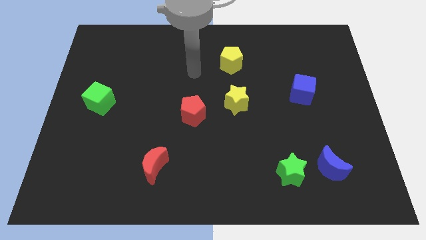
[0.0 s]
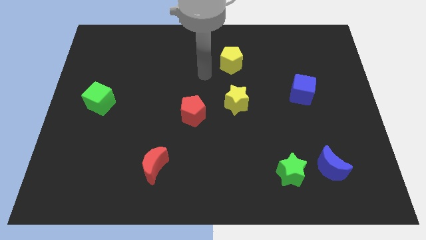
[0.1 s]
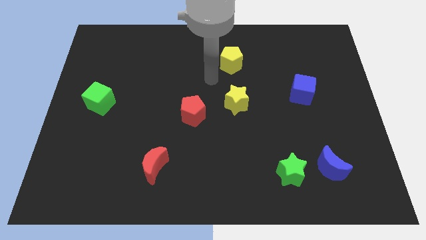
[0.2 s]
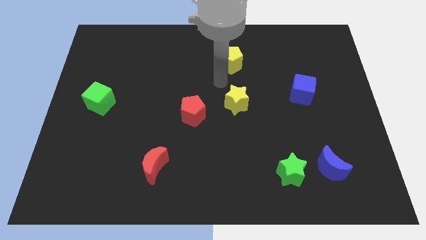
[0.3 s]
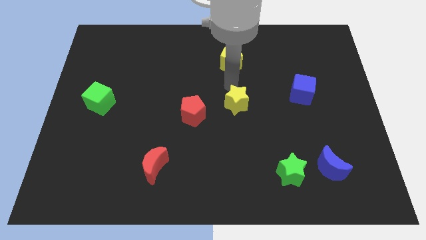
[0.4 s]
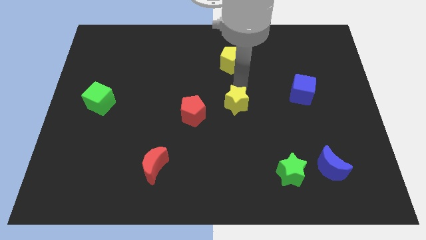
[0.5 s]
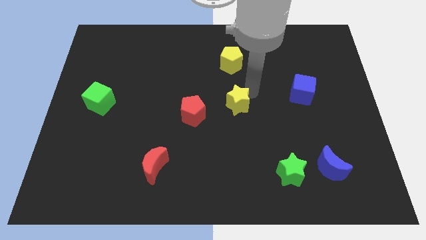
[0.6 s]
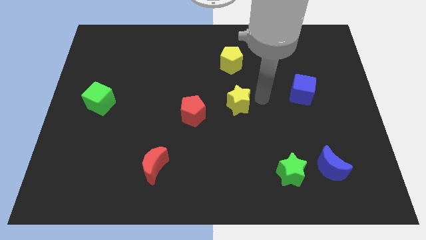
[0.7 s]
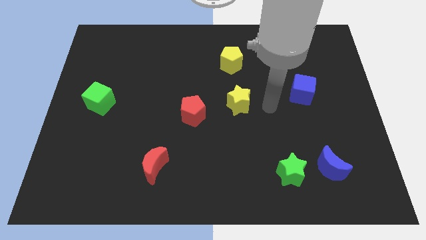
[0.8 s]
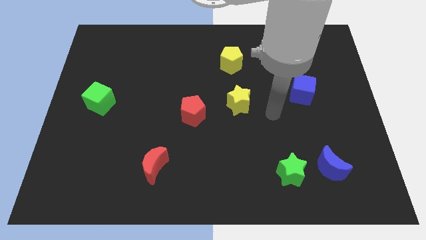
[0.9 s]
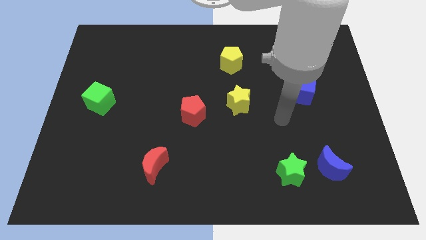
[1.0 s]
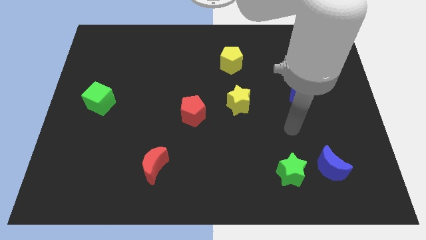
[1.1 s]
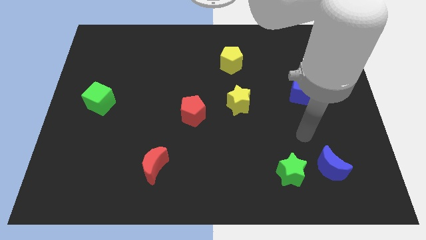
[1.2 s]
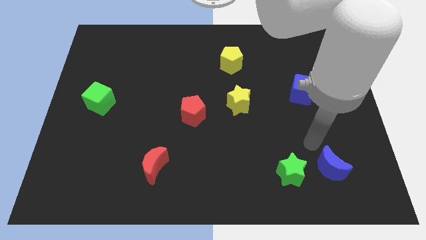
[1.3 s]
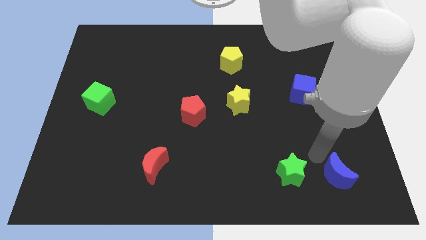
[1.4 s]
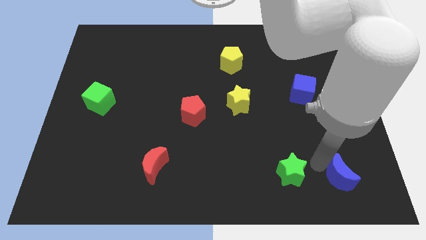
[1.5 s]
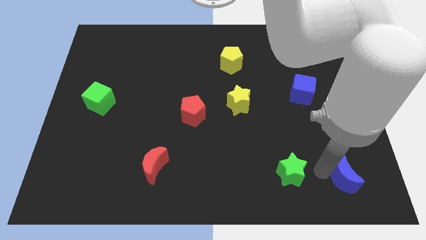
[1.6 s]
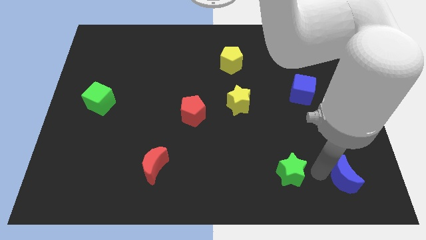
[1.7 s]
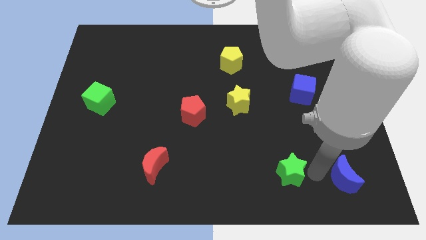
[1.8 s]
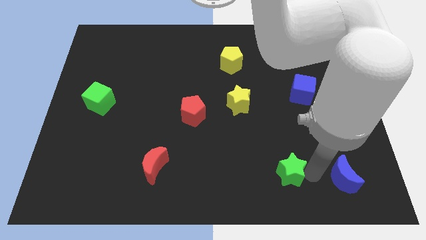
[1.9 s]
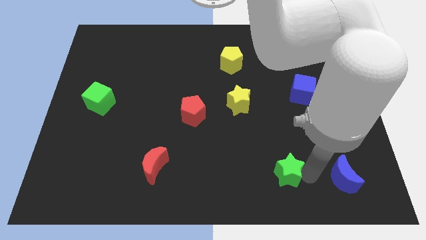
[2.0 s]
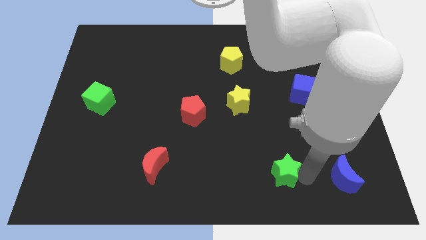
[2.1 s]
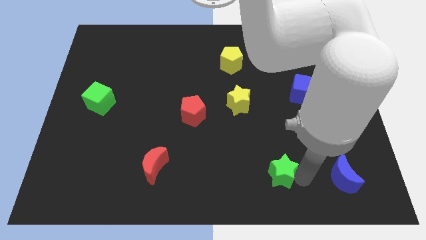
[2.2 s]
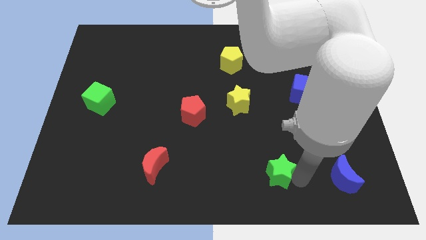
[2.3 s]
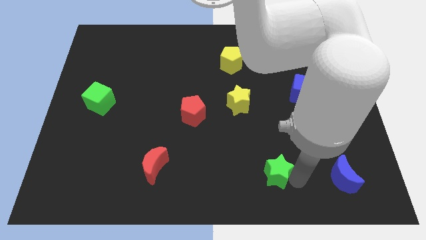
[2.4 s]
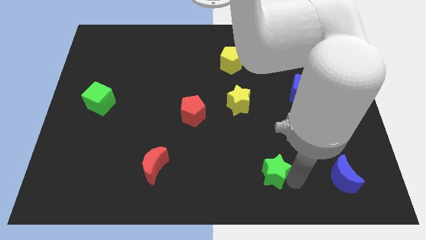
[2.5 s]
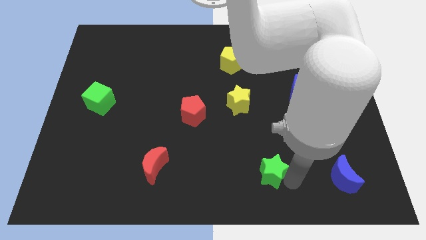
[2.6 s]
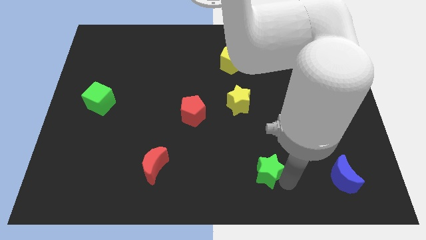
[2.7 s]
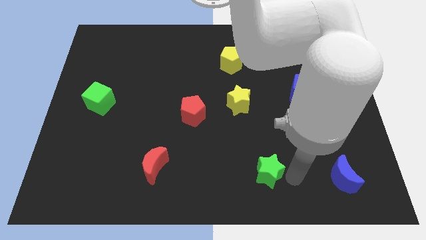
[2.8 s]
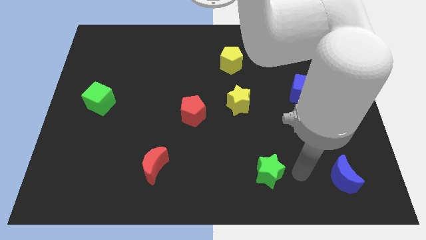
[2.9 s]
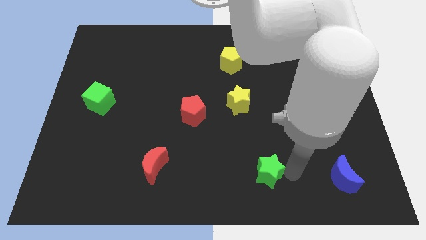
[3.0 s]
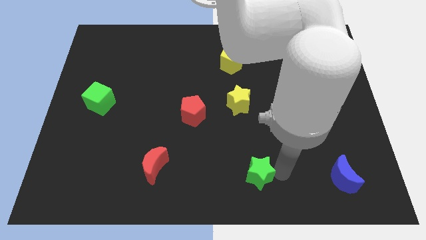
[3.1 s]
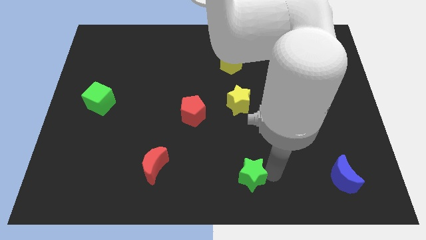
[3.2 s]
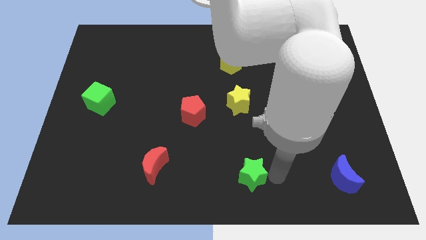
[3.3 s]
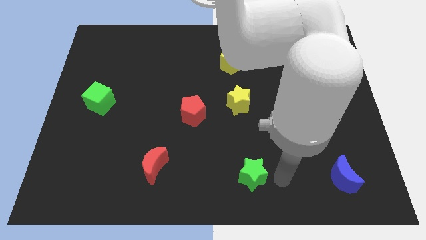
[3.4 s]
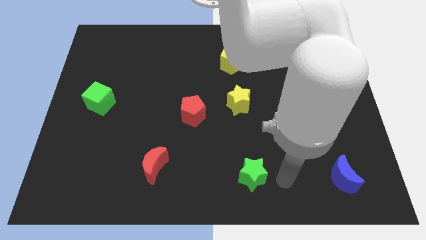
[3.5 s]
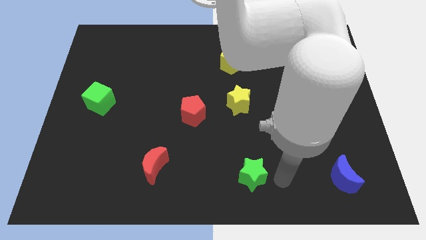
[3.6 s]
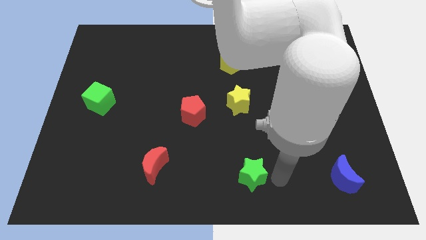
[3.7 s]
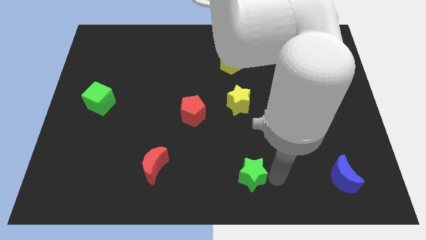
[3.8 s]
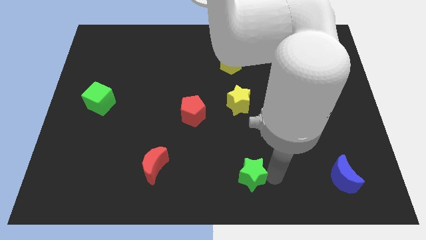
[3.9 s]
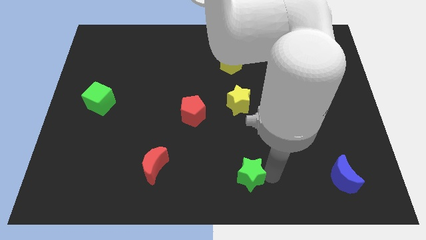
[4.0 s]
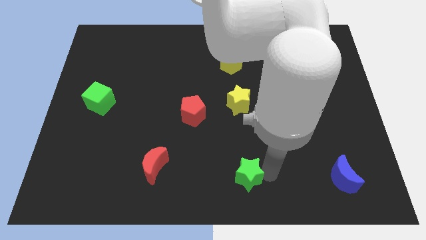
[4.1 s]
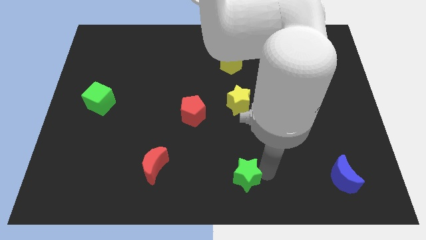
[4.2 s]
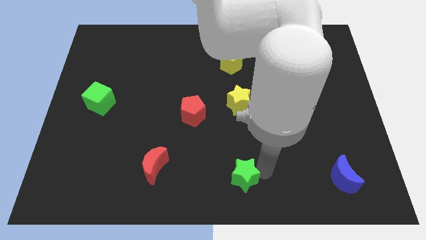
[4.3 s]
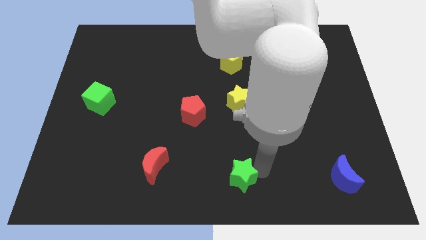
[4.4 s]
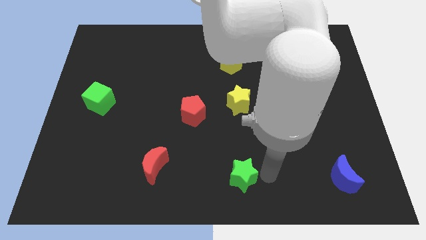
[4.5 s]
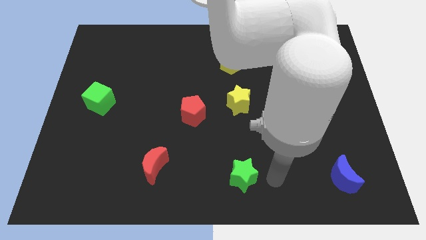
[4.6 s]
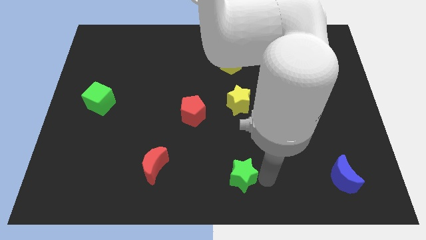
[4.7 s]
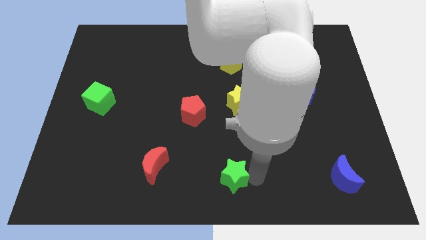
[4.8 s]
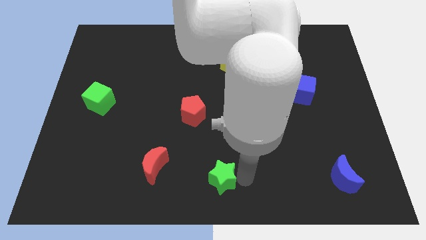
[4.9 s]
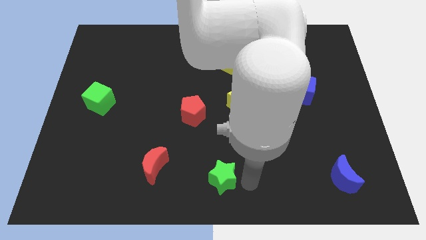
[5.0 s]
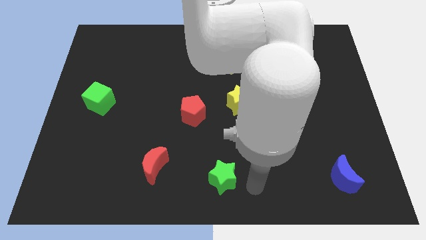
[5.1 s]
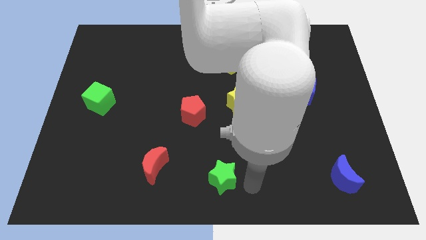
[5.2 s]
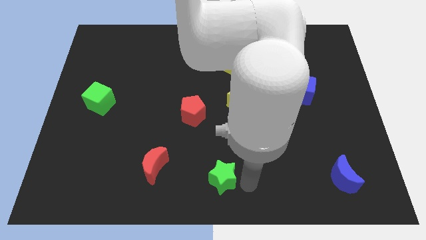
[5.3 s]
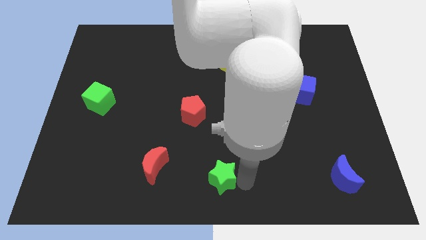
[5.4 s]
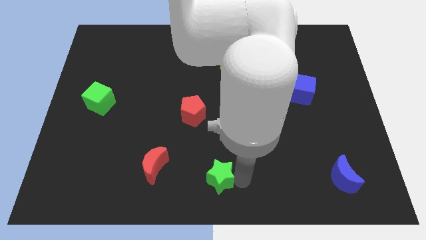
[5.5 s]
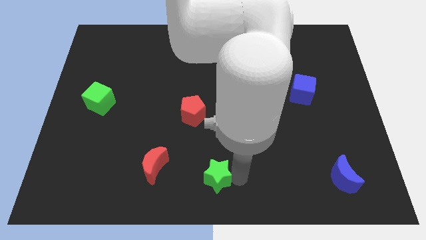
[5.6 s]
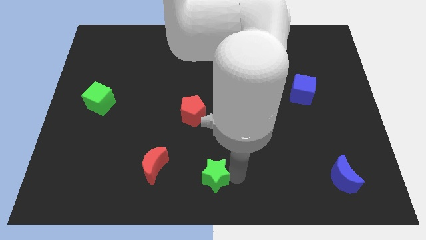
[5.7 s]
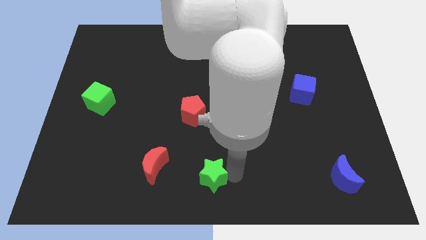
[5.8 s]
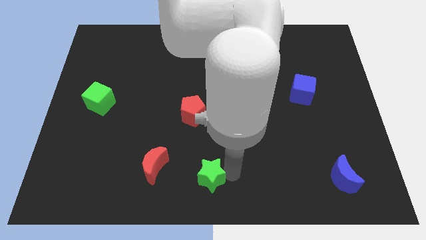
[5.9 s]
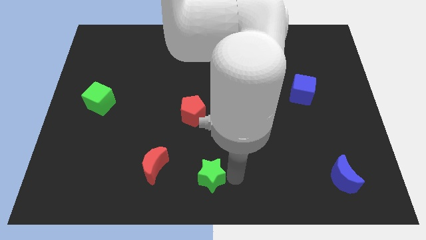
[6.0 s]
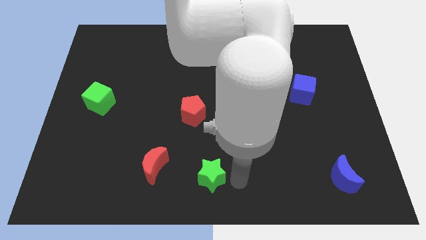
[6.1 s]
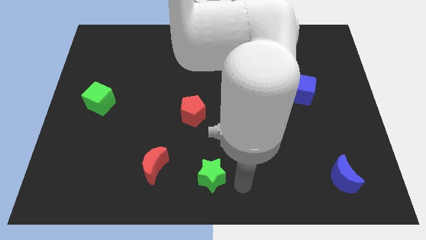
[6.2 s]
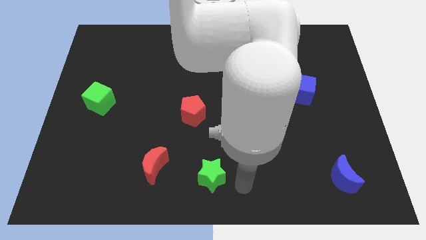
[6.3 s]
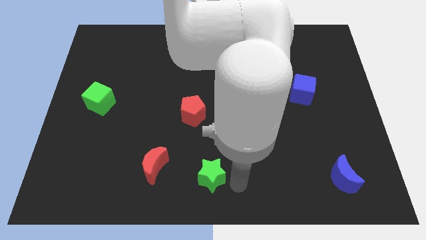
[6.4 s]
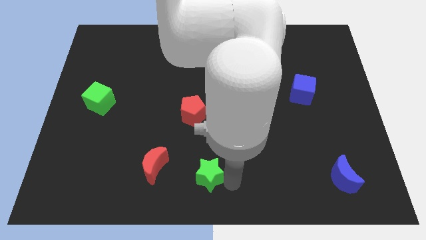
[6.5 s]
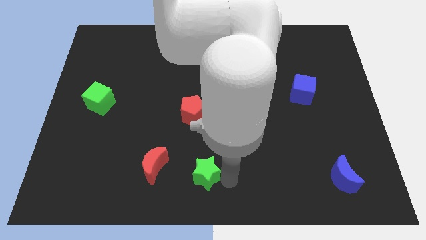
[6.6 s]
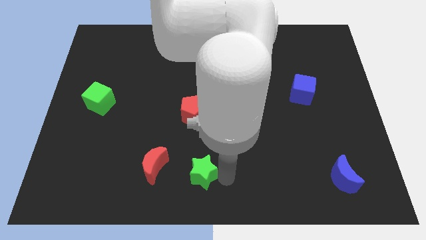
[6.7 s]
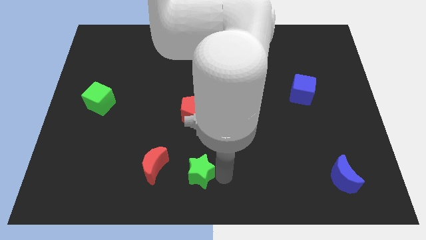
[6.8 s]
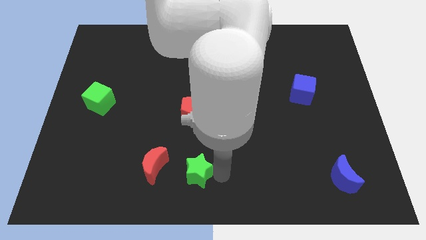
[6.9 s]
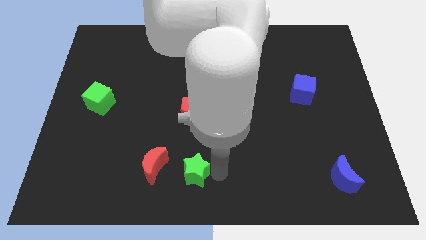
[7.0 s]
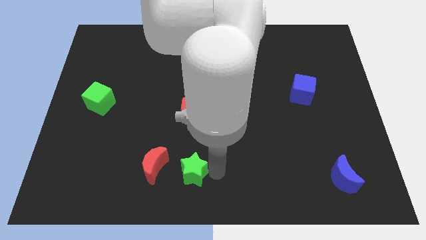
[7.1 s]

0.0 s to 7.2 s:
move the green star to the left

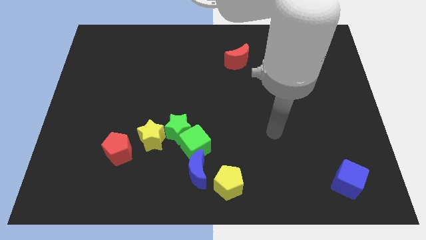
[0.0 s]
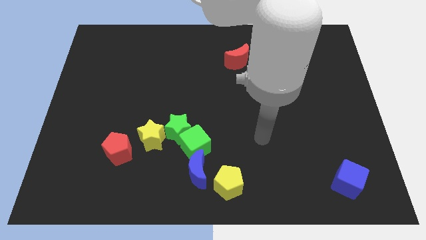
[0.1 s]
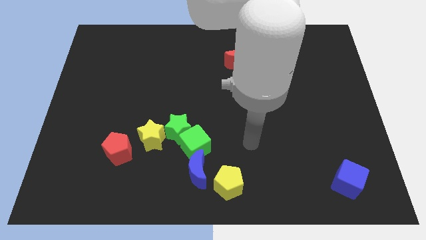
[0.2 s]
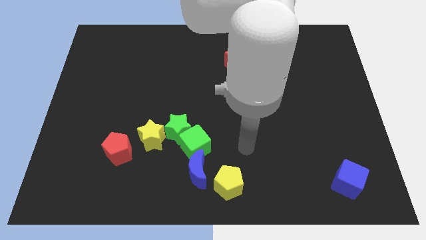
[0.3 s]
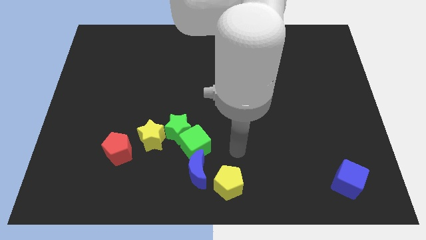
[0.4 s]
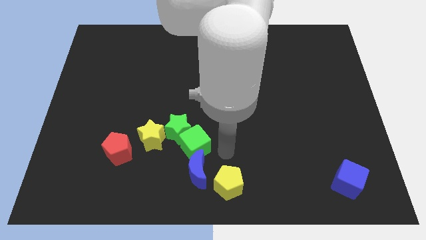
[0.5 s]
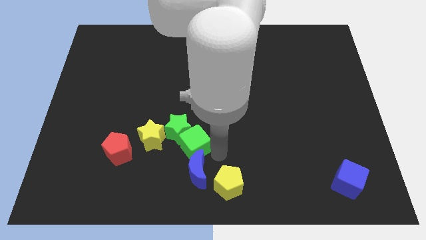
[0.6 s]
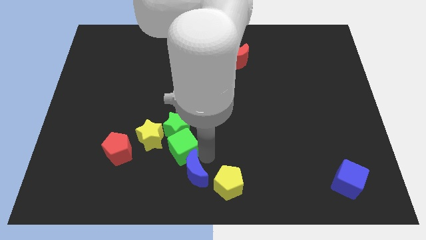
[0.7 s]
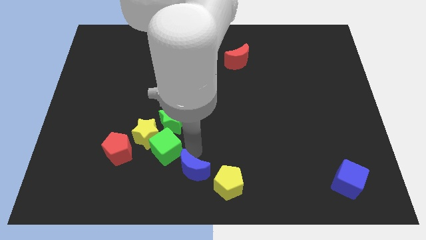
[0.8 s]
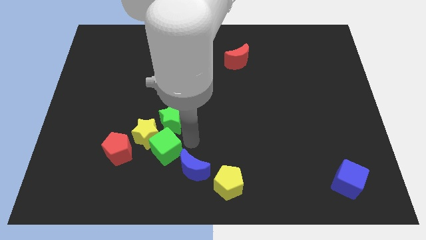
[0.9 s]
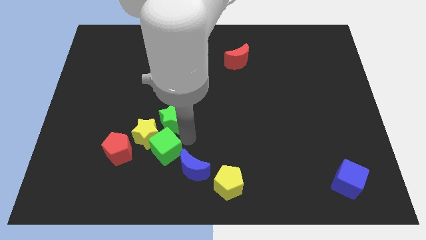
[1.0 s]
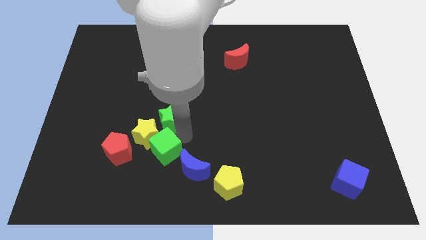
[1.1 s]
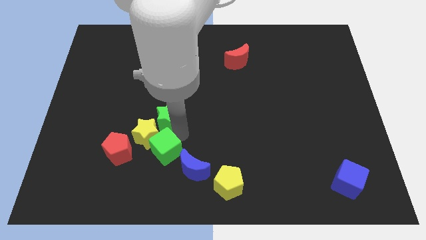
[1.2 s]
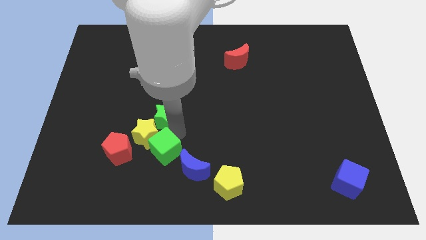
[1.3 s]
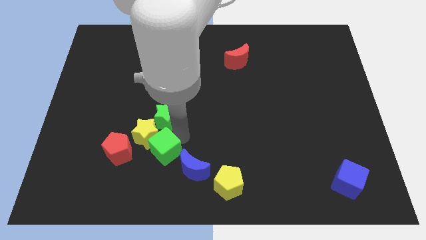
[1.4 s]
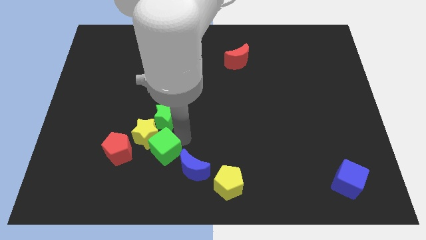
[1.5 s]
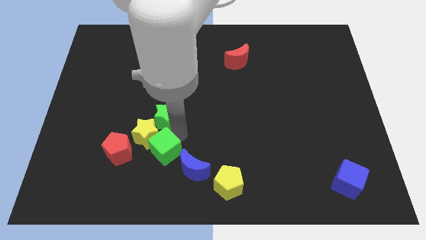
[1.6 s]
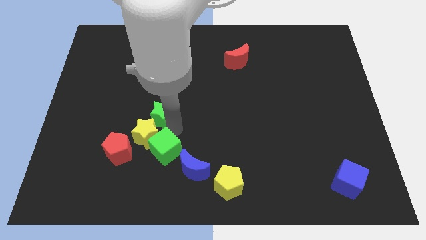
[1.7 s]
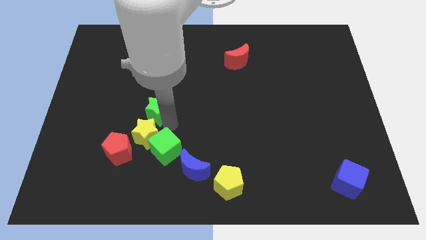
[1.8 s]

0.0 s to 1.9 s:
move the green star a little upwards and to the left
